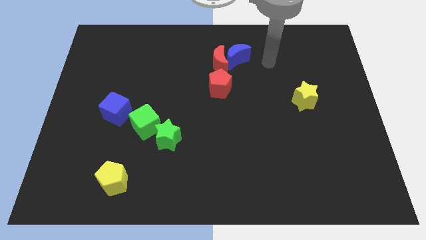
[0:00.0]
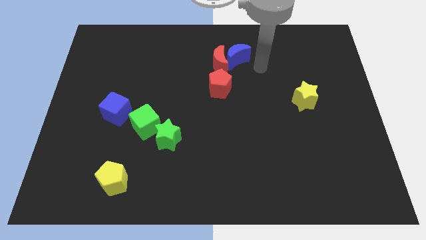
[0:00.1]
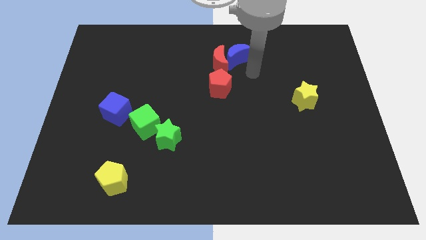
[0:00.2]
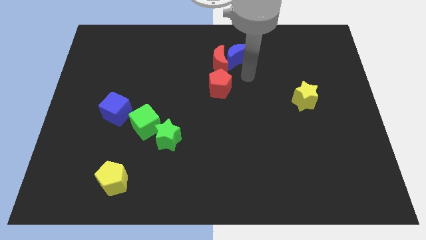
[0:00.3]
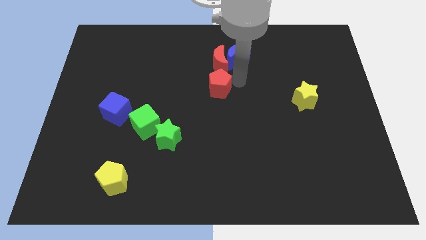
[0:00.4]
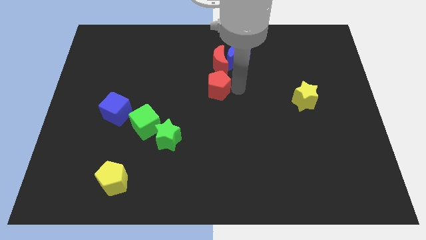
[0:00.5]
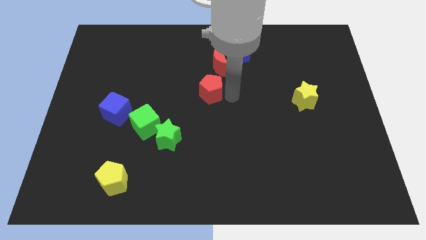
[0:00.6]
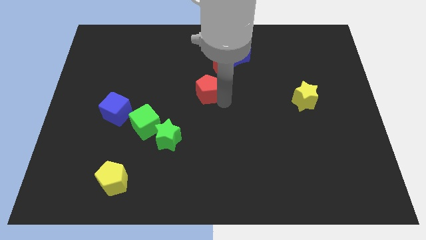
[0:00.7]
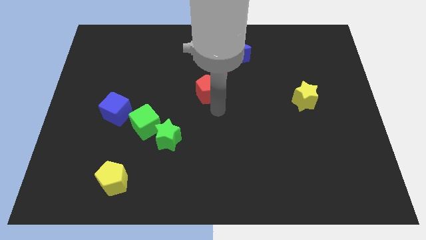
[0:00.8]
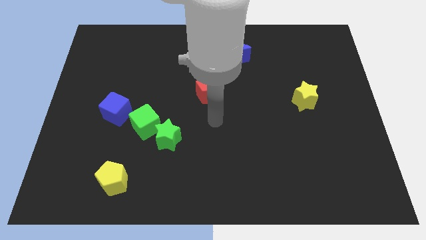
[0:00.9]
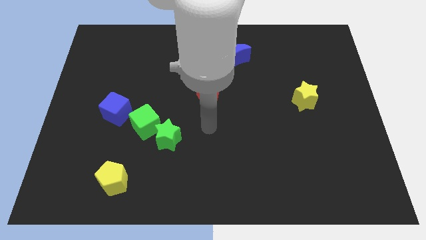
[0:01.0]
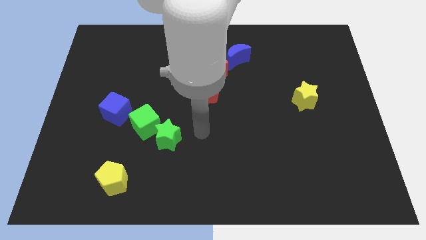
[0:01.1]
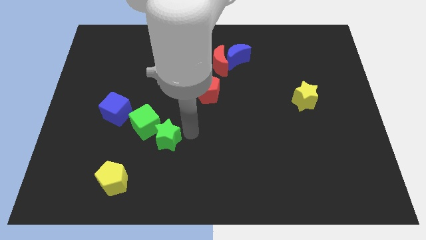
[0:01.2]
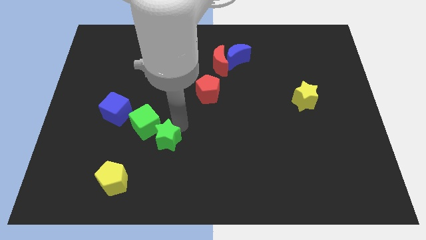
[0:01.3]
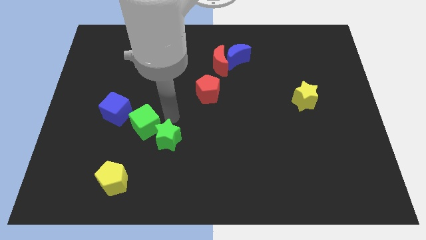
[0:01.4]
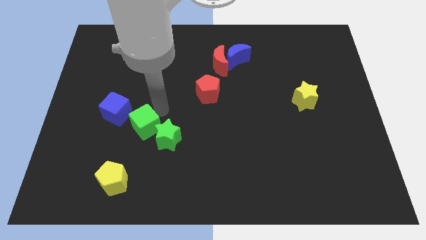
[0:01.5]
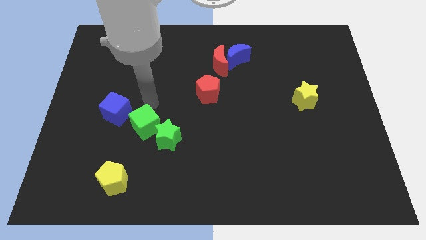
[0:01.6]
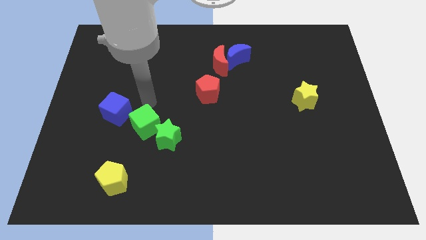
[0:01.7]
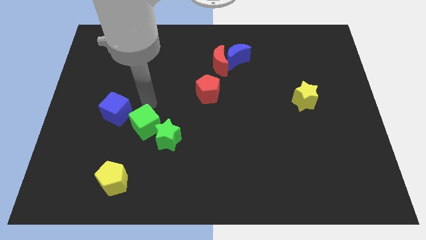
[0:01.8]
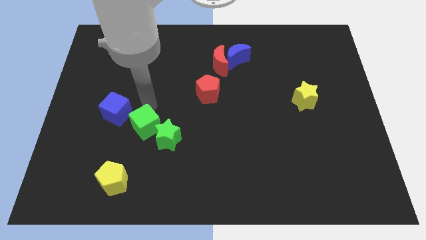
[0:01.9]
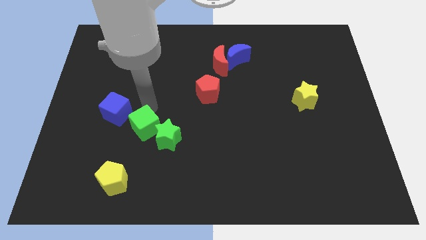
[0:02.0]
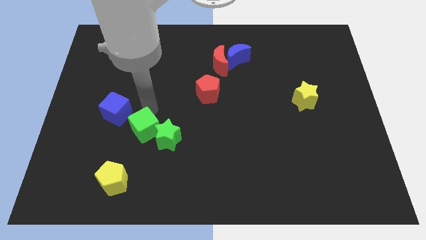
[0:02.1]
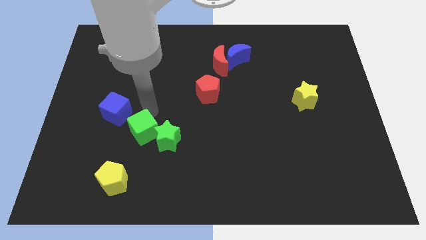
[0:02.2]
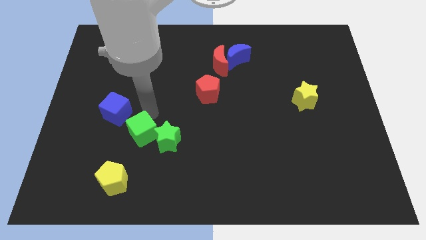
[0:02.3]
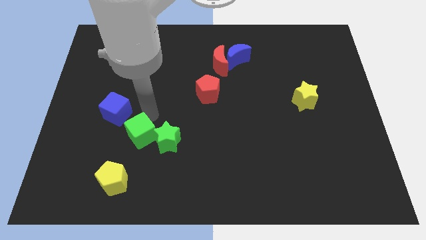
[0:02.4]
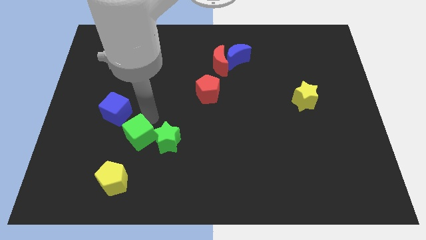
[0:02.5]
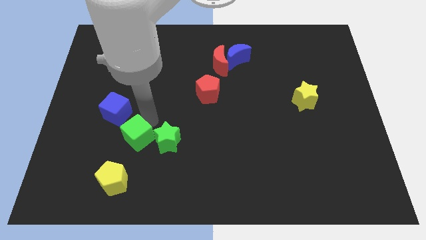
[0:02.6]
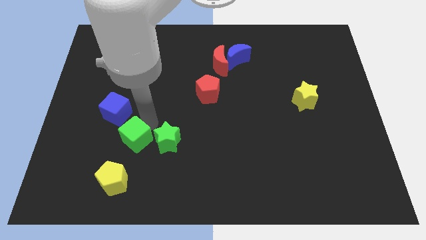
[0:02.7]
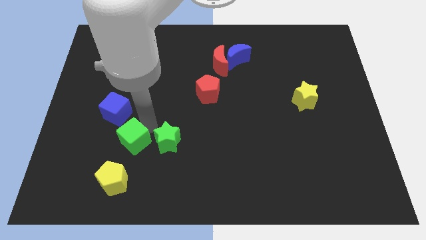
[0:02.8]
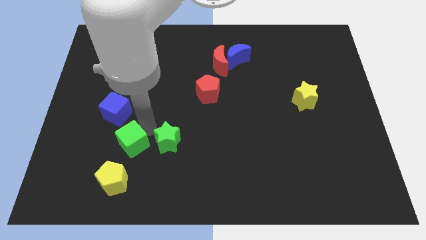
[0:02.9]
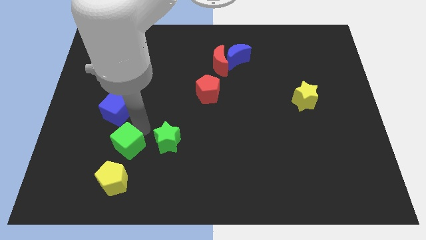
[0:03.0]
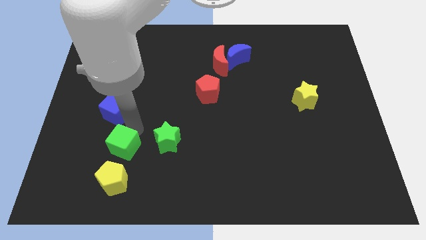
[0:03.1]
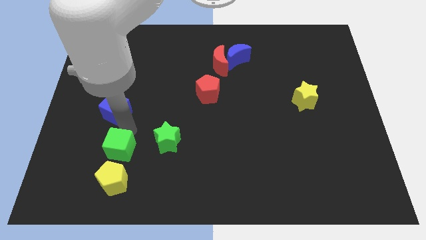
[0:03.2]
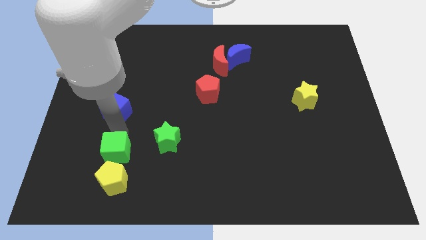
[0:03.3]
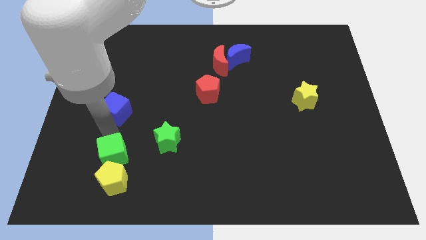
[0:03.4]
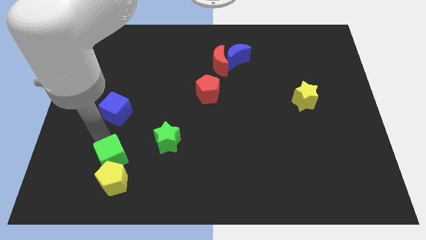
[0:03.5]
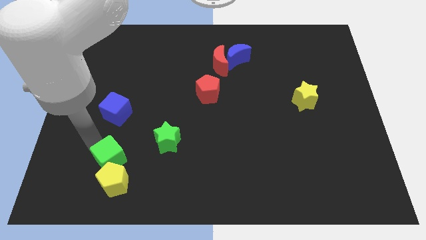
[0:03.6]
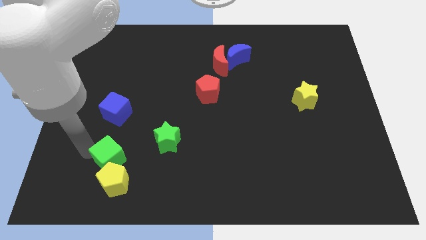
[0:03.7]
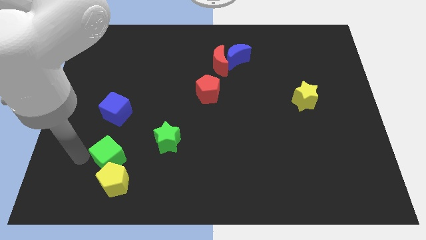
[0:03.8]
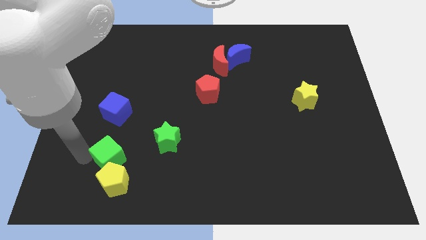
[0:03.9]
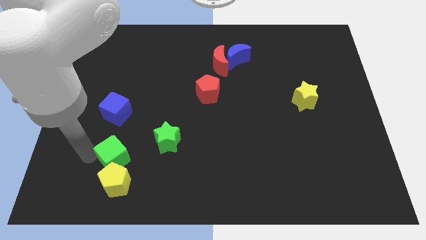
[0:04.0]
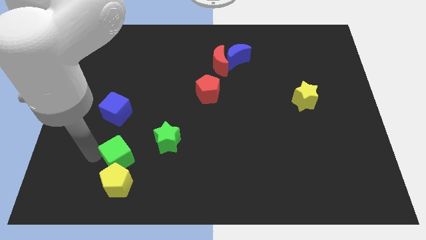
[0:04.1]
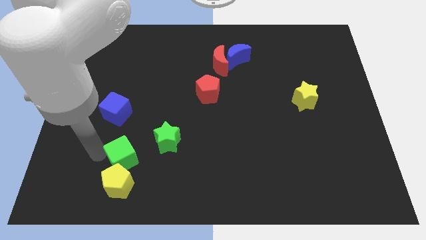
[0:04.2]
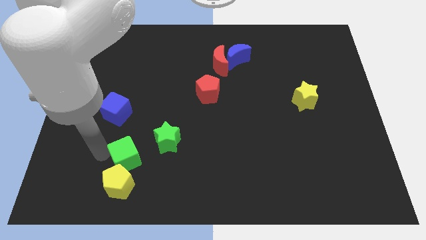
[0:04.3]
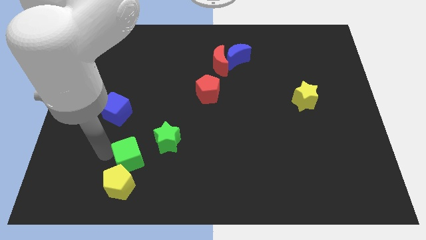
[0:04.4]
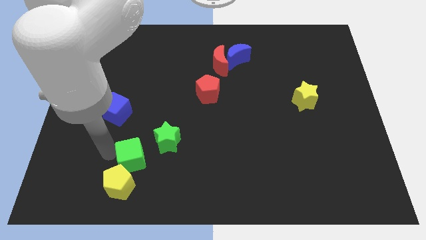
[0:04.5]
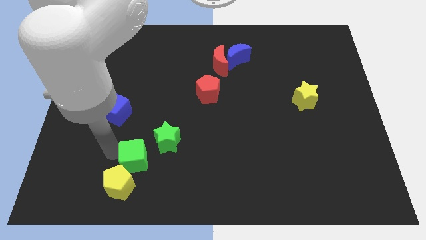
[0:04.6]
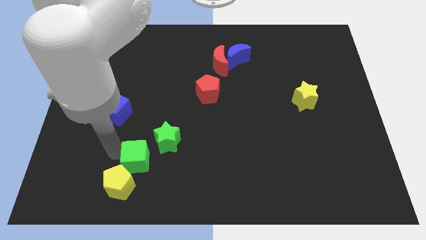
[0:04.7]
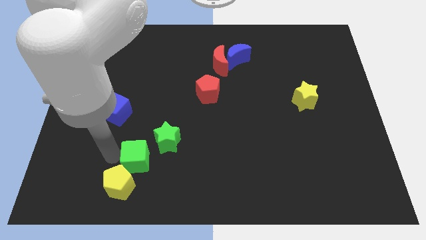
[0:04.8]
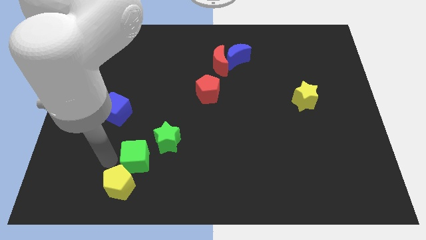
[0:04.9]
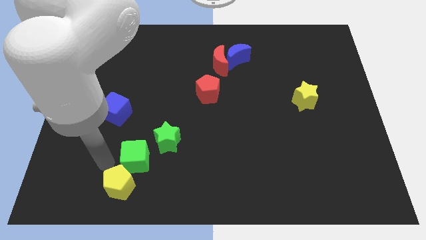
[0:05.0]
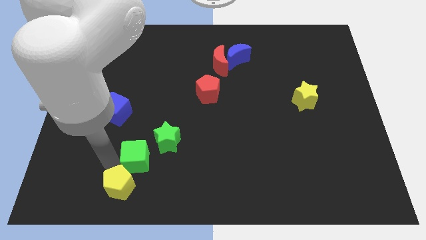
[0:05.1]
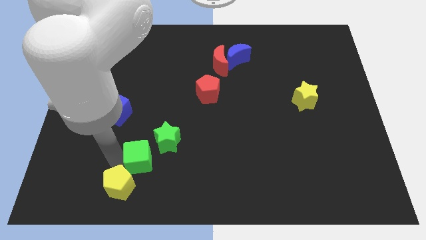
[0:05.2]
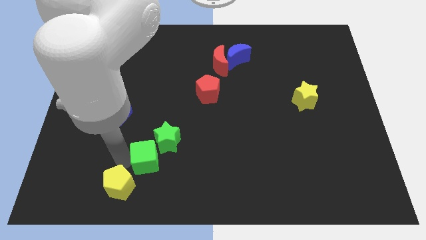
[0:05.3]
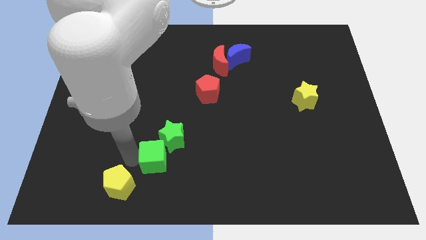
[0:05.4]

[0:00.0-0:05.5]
slightly slide the green cube down and then to the right

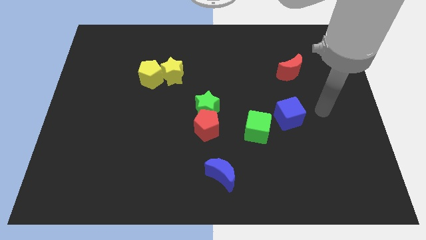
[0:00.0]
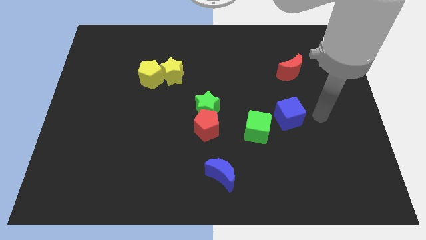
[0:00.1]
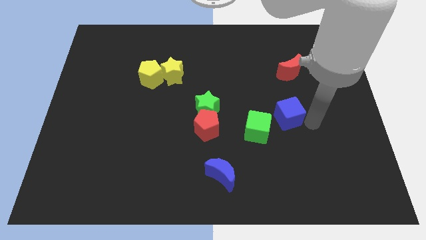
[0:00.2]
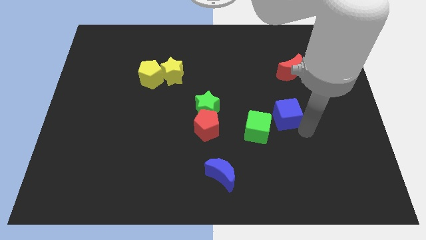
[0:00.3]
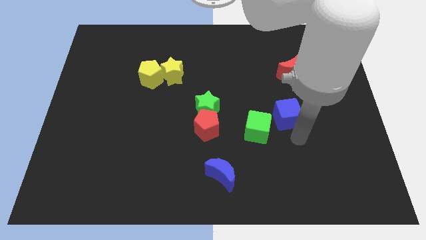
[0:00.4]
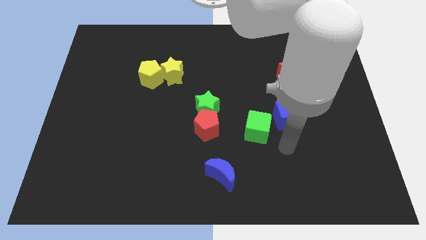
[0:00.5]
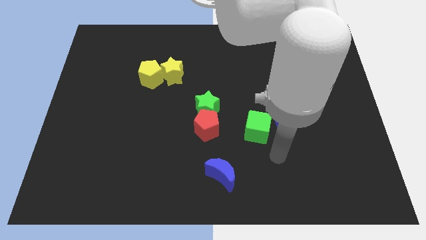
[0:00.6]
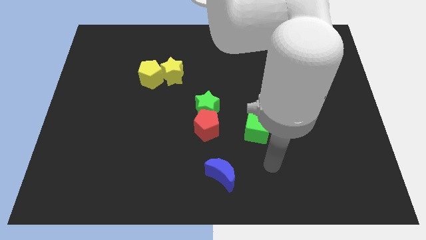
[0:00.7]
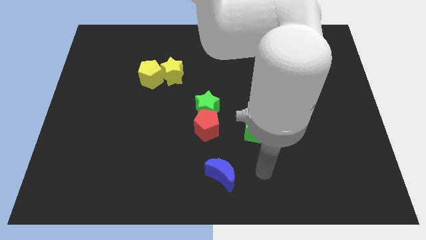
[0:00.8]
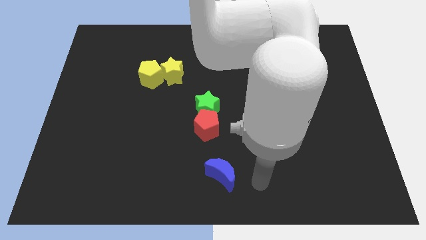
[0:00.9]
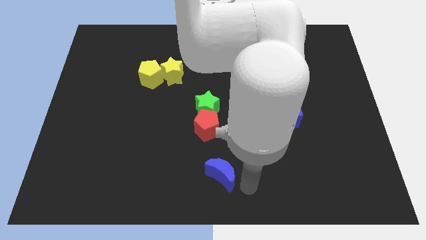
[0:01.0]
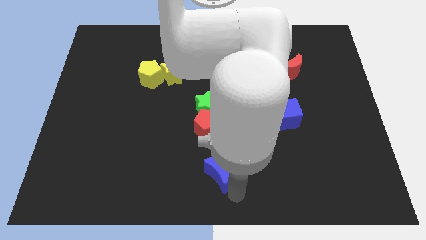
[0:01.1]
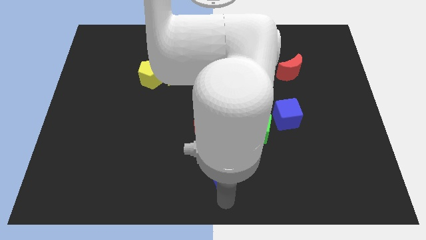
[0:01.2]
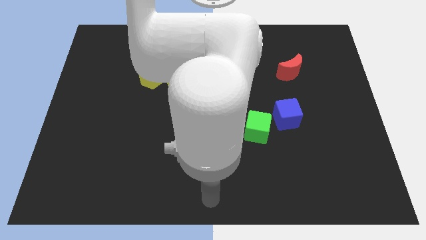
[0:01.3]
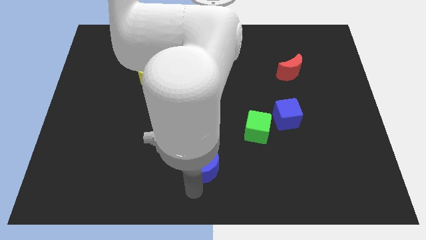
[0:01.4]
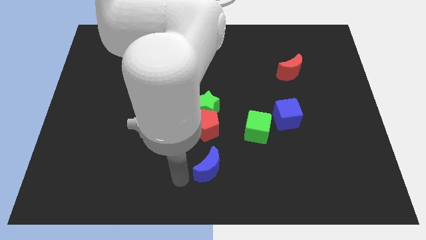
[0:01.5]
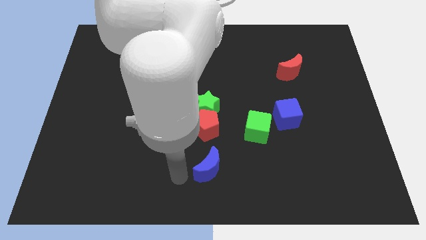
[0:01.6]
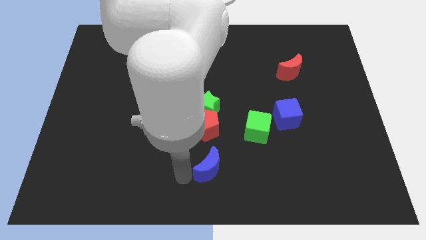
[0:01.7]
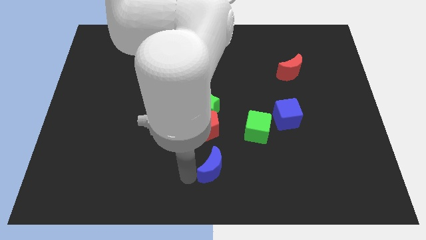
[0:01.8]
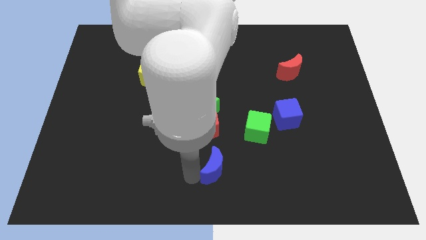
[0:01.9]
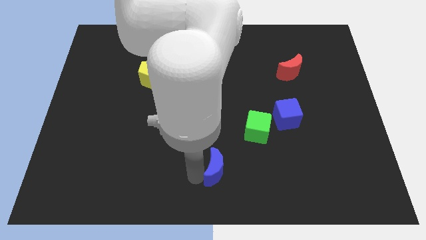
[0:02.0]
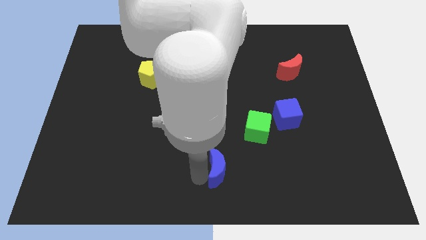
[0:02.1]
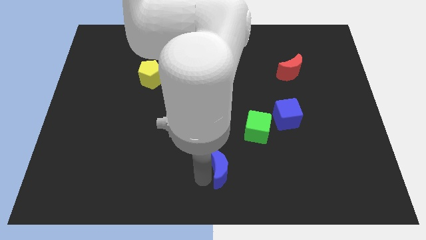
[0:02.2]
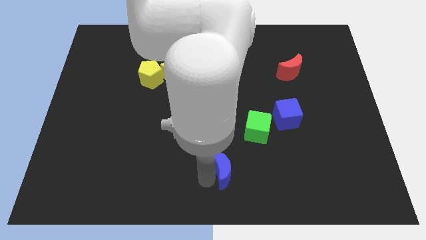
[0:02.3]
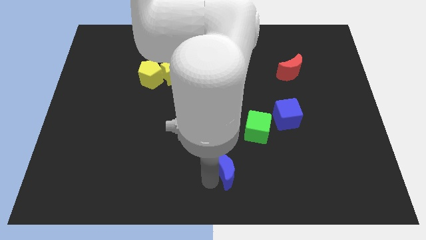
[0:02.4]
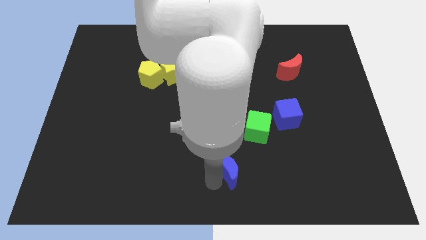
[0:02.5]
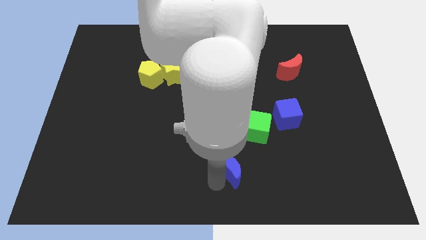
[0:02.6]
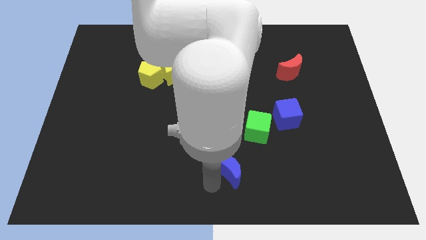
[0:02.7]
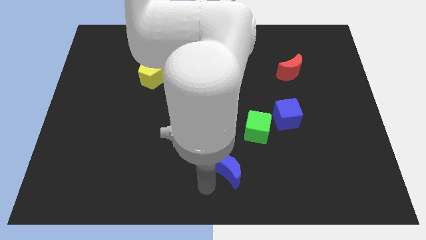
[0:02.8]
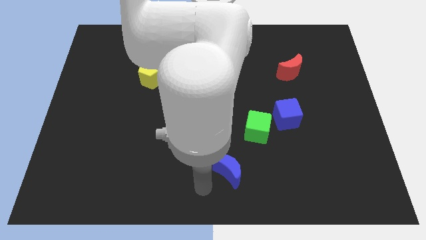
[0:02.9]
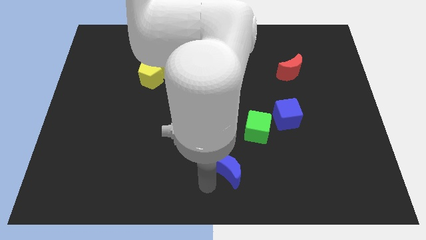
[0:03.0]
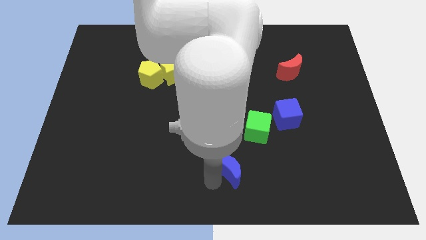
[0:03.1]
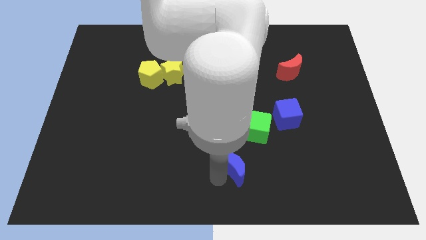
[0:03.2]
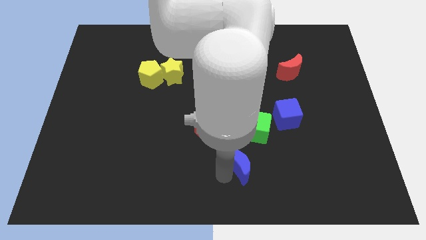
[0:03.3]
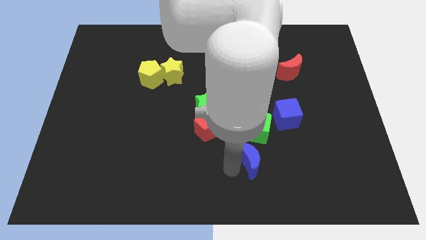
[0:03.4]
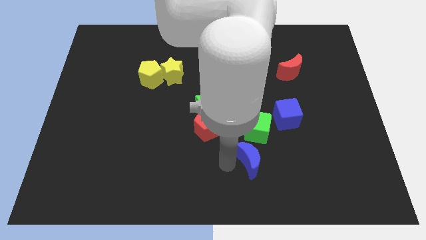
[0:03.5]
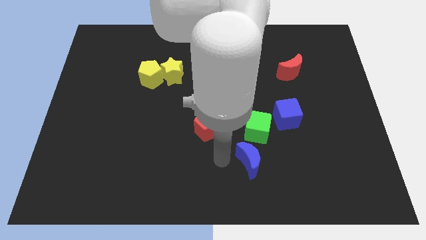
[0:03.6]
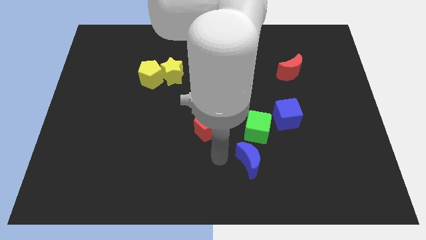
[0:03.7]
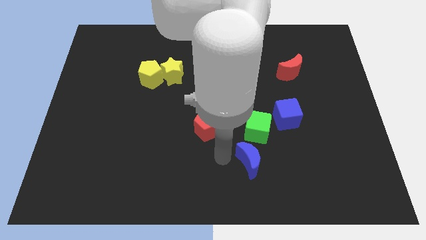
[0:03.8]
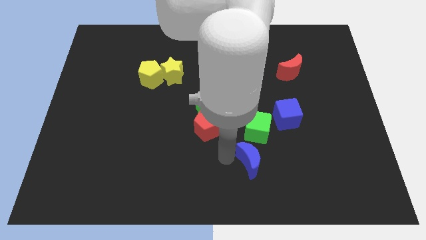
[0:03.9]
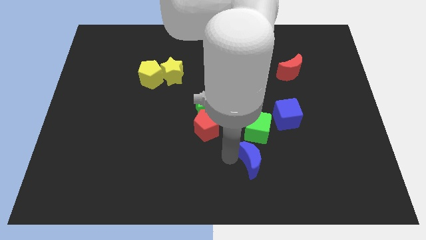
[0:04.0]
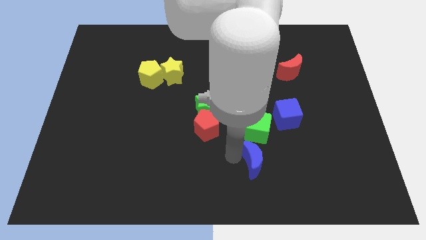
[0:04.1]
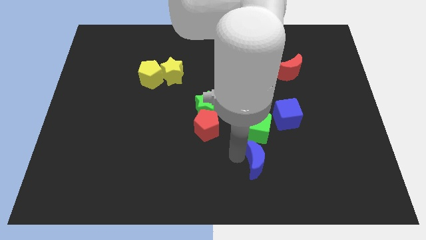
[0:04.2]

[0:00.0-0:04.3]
slightly move the blue moon right
